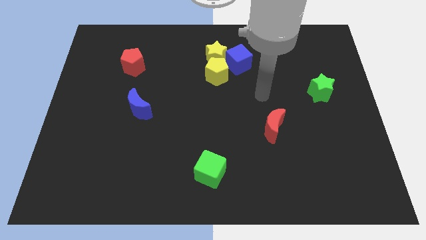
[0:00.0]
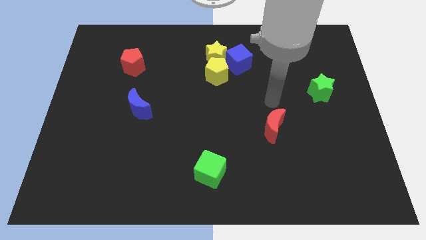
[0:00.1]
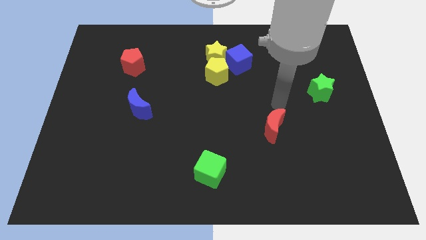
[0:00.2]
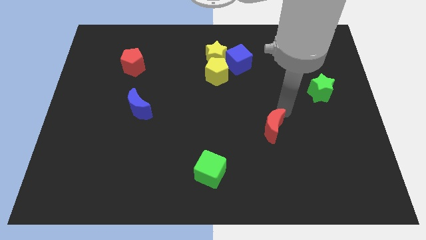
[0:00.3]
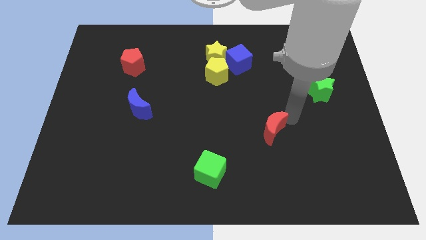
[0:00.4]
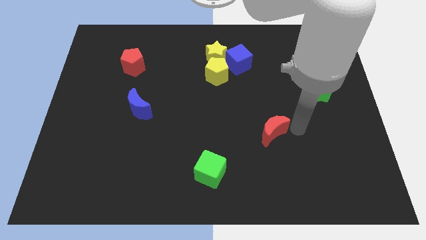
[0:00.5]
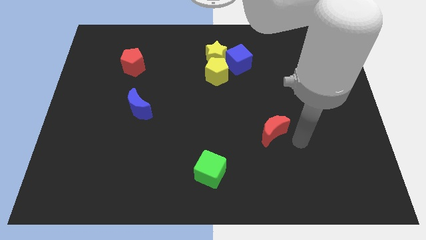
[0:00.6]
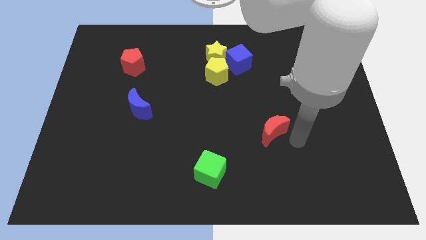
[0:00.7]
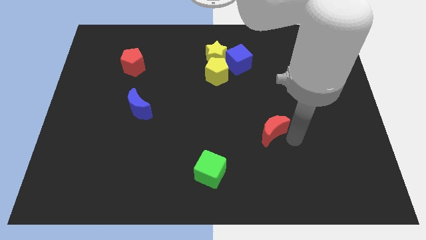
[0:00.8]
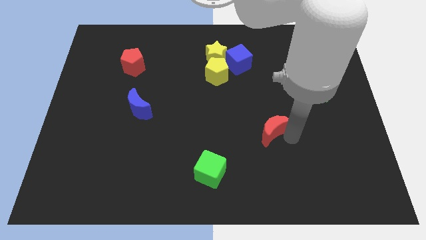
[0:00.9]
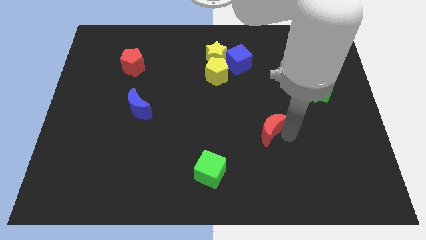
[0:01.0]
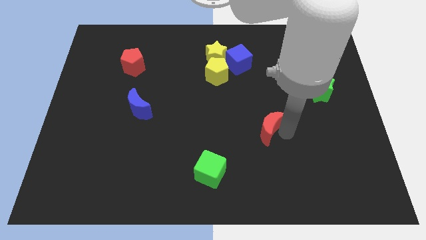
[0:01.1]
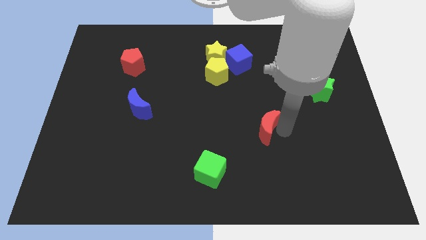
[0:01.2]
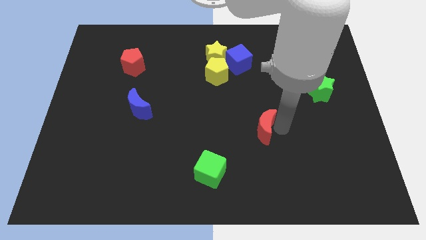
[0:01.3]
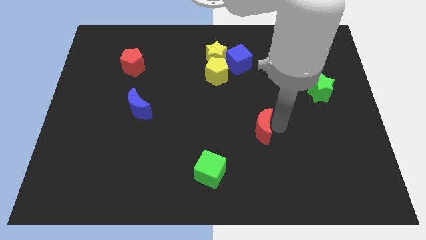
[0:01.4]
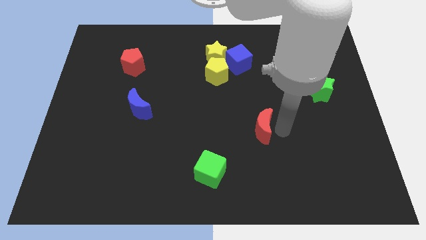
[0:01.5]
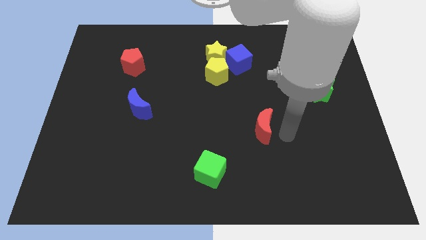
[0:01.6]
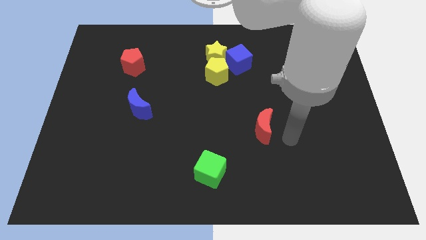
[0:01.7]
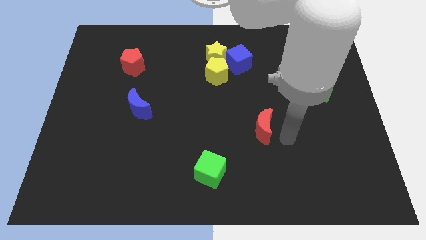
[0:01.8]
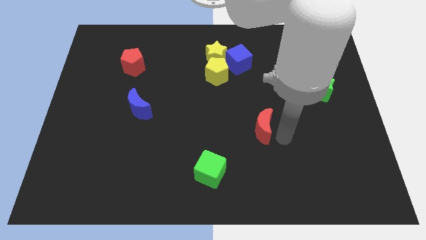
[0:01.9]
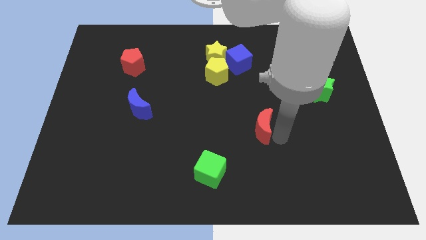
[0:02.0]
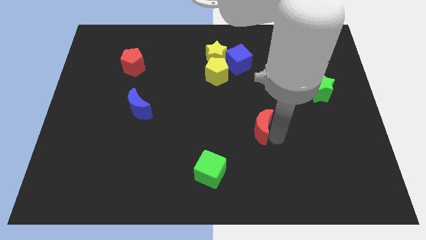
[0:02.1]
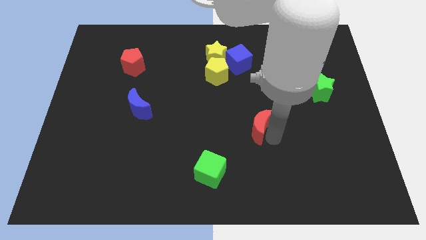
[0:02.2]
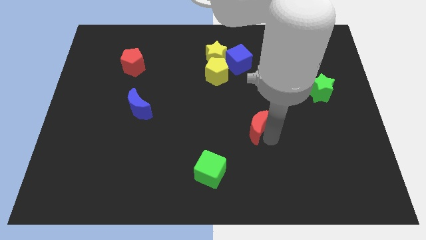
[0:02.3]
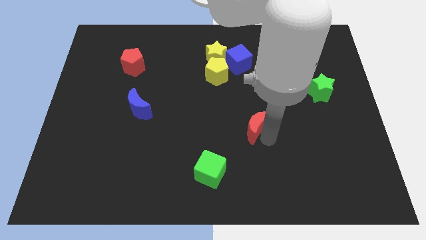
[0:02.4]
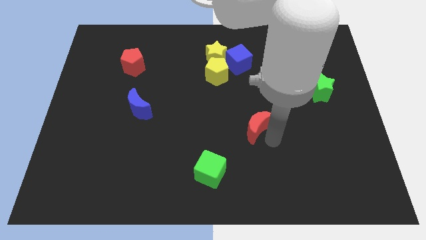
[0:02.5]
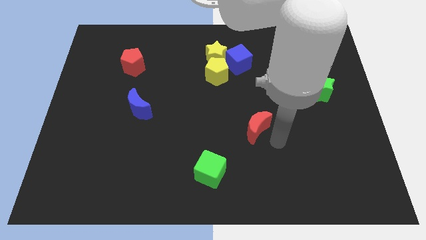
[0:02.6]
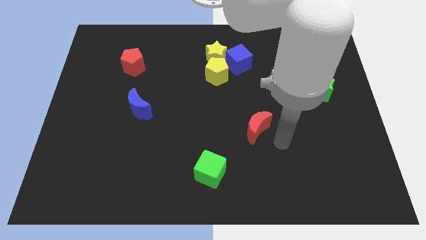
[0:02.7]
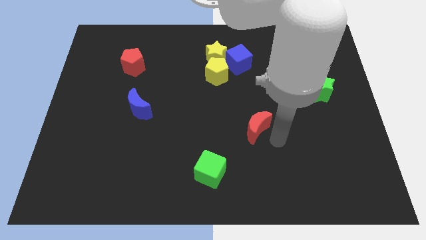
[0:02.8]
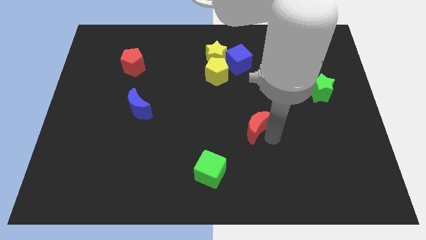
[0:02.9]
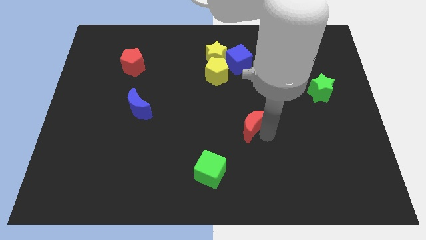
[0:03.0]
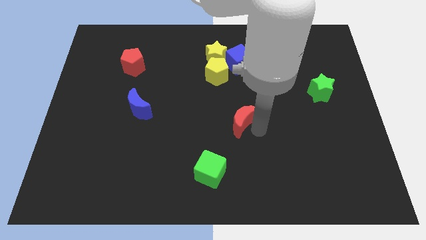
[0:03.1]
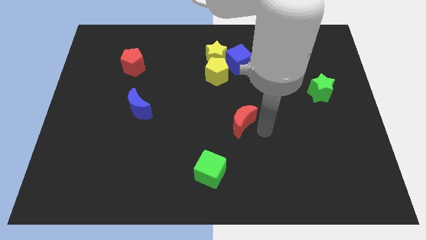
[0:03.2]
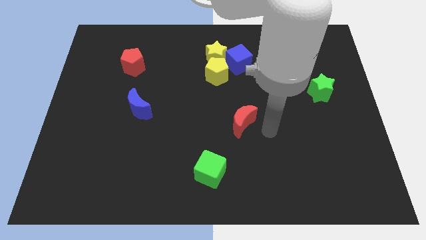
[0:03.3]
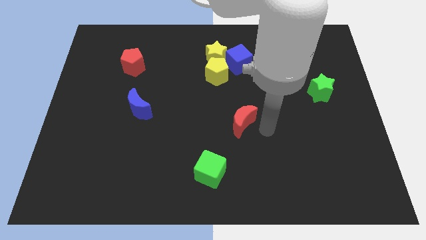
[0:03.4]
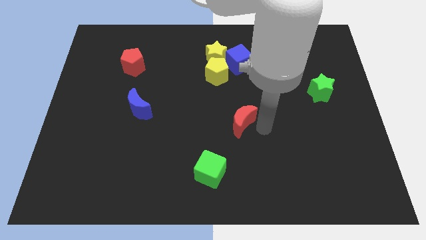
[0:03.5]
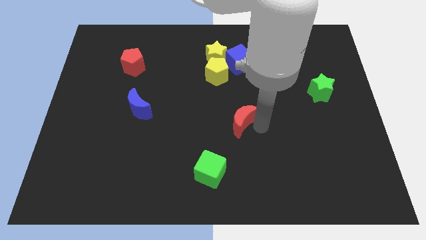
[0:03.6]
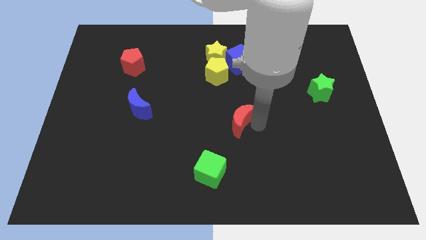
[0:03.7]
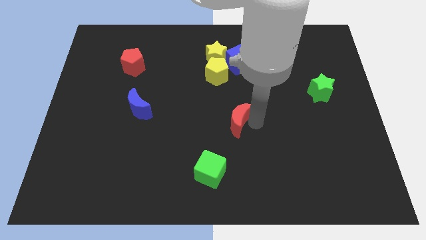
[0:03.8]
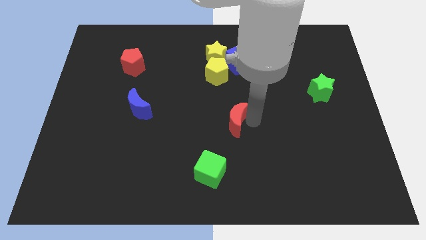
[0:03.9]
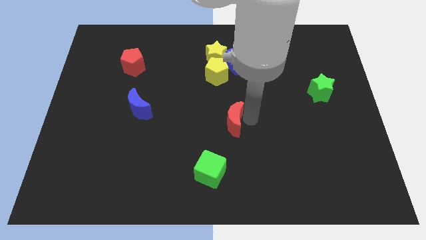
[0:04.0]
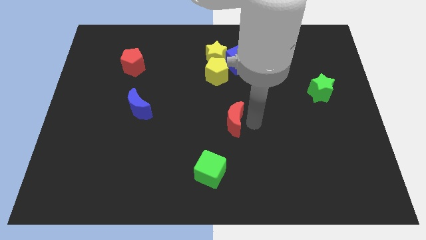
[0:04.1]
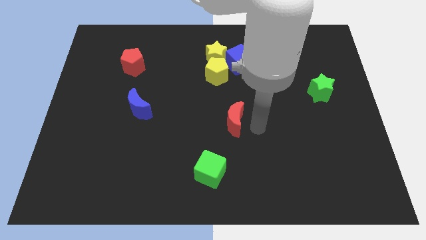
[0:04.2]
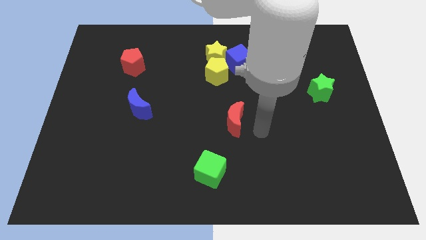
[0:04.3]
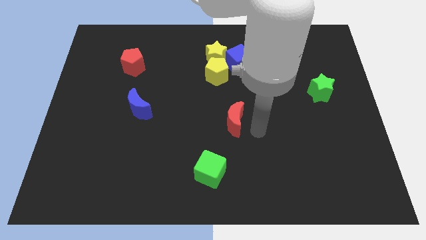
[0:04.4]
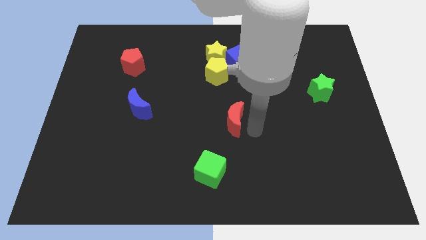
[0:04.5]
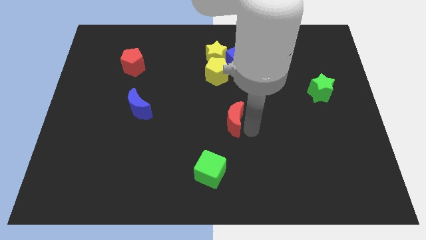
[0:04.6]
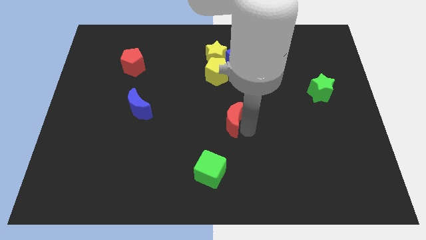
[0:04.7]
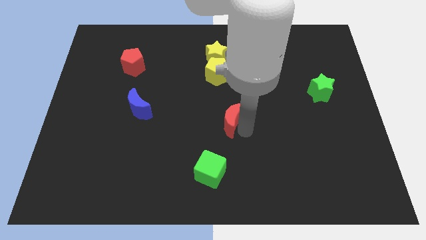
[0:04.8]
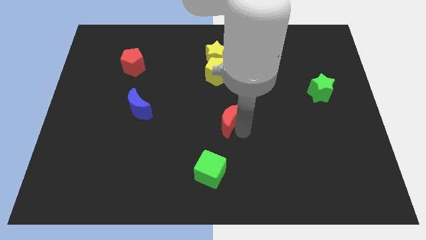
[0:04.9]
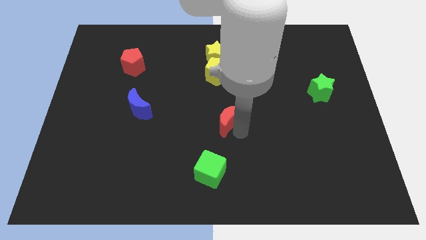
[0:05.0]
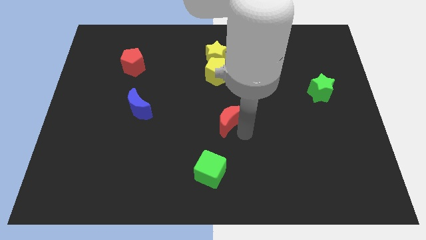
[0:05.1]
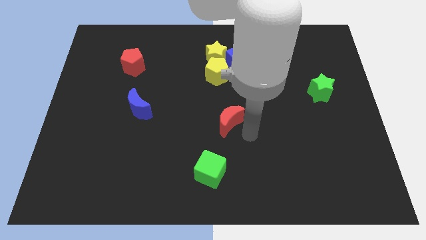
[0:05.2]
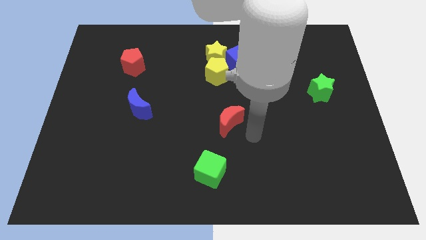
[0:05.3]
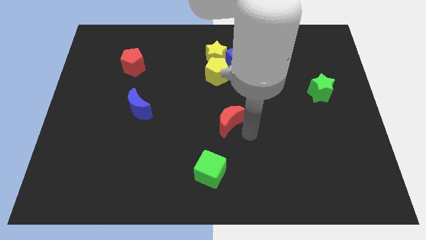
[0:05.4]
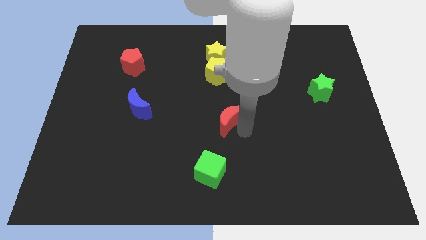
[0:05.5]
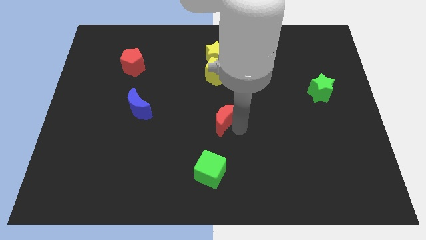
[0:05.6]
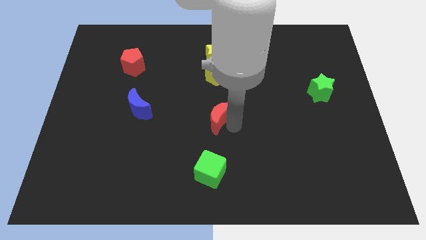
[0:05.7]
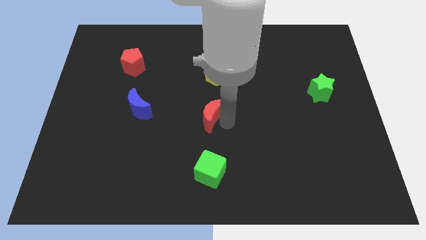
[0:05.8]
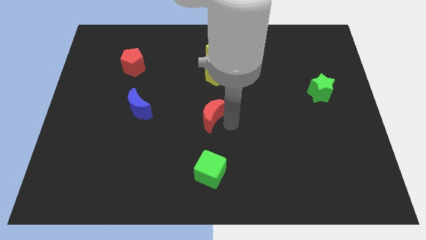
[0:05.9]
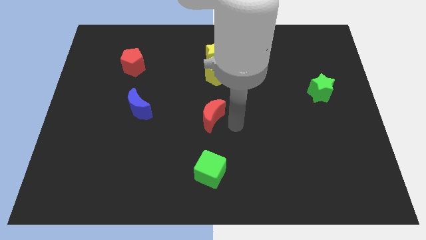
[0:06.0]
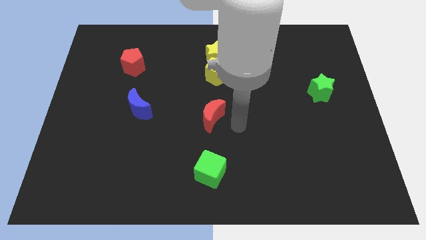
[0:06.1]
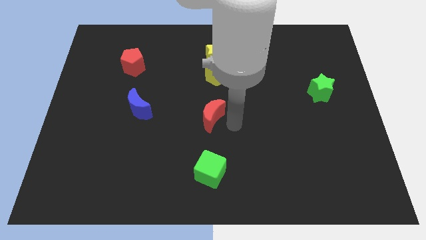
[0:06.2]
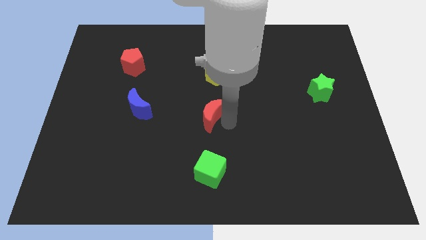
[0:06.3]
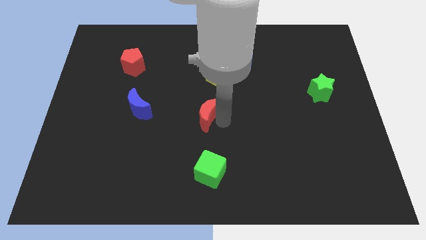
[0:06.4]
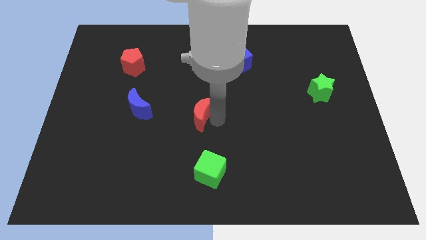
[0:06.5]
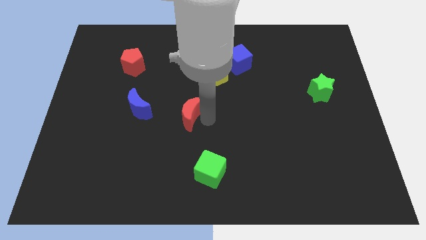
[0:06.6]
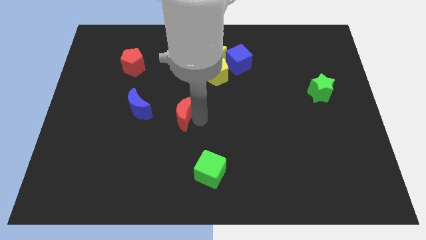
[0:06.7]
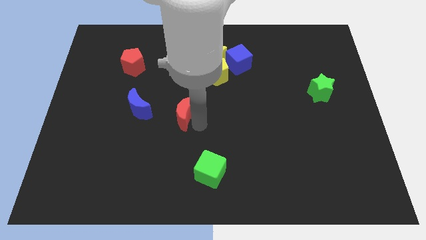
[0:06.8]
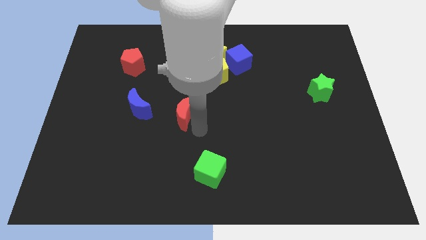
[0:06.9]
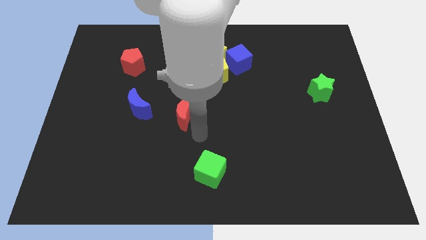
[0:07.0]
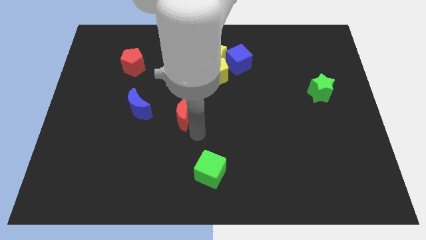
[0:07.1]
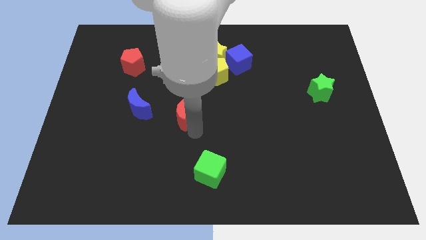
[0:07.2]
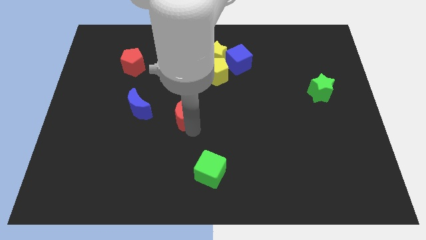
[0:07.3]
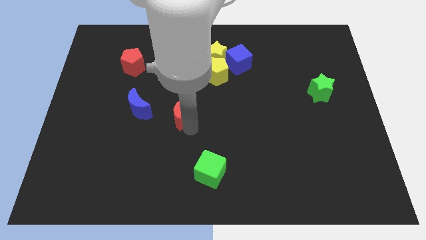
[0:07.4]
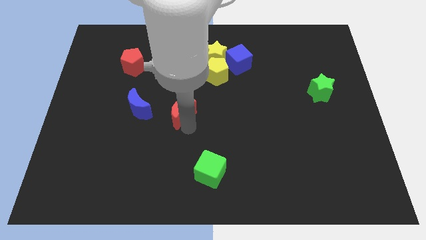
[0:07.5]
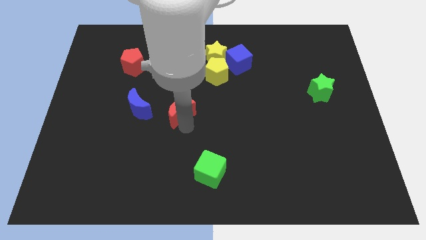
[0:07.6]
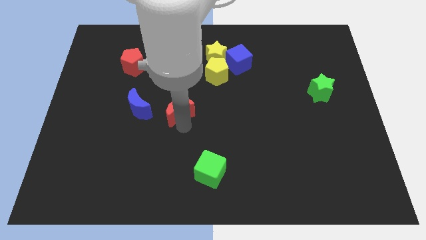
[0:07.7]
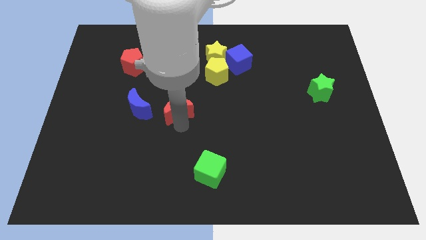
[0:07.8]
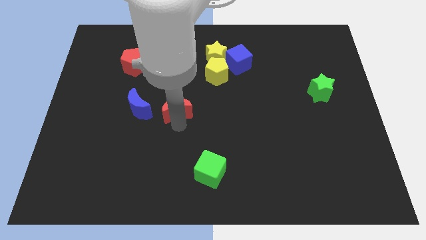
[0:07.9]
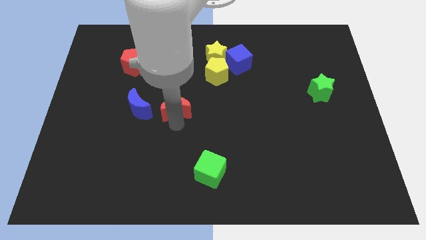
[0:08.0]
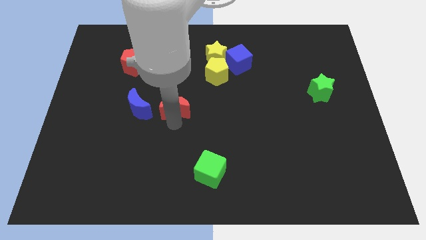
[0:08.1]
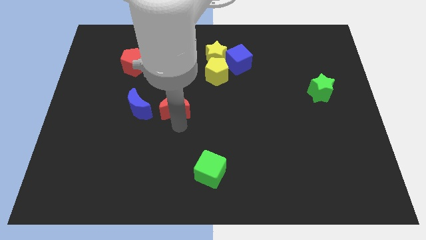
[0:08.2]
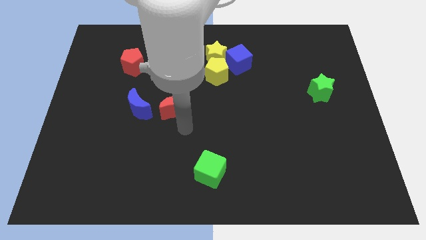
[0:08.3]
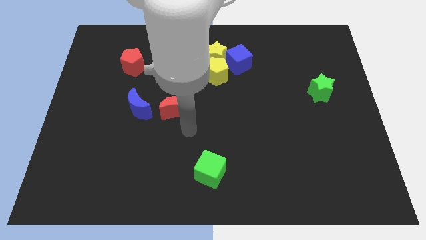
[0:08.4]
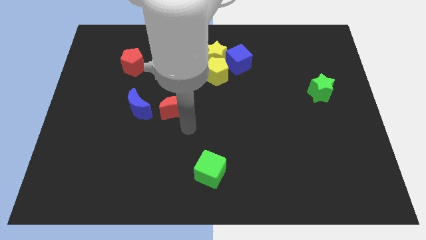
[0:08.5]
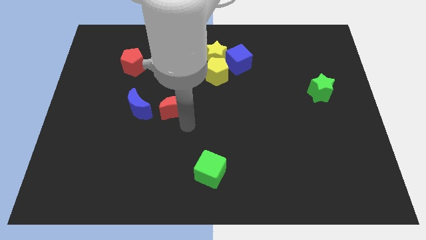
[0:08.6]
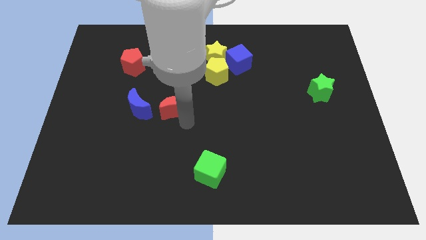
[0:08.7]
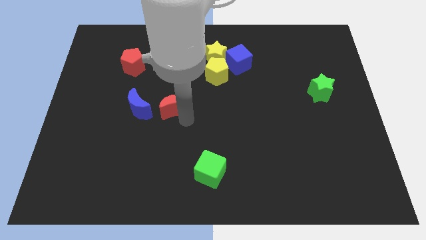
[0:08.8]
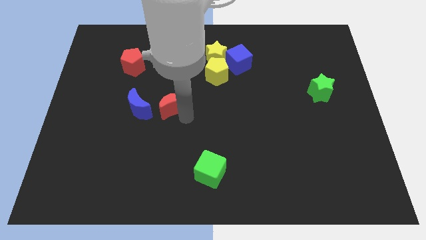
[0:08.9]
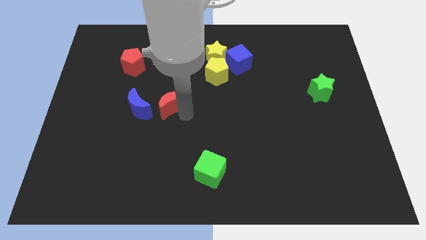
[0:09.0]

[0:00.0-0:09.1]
push the red moon to the top right of the blue moon
